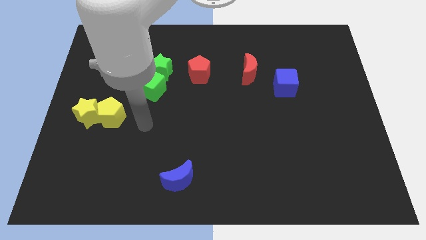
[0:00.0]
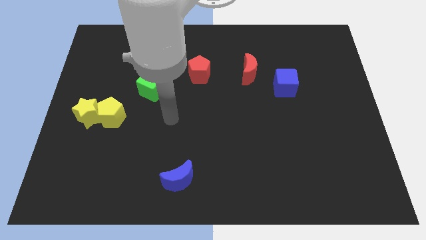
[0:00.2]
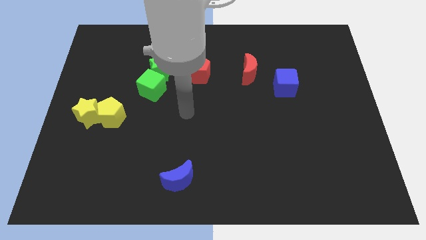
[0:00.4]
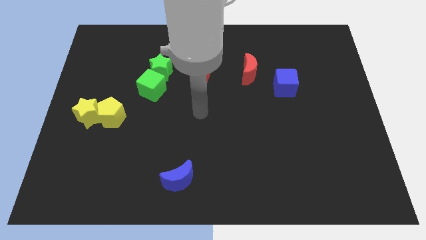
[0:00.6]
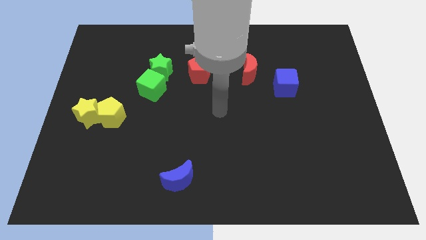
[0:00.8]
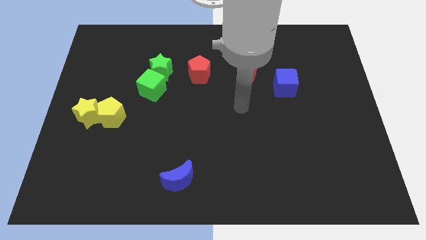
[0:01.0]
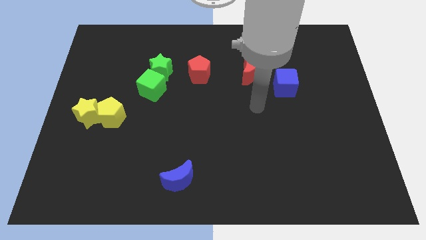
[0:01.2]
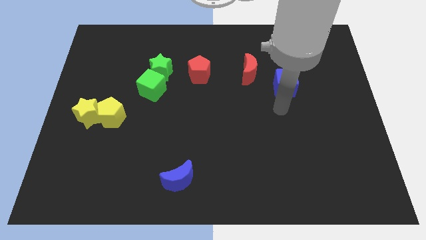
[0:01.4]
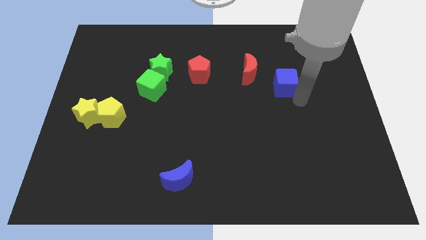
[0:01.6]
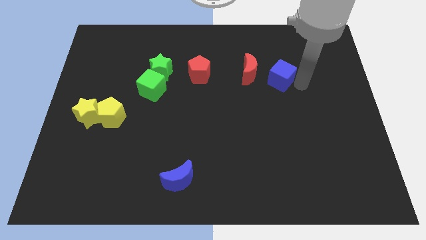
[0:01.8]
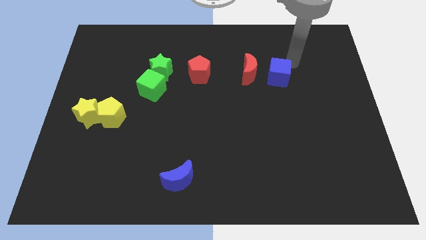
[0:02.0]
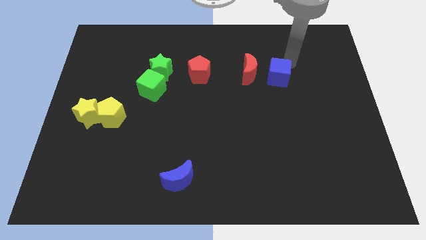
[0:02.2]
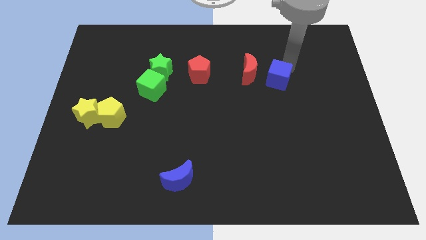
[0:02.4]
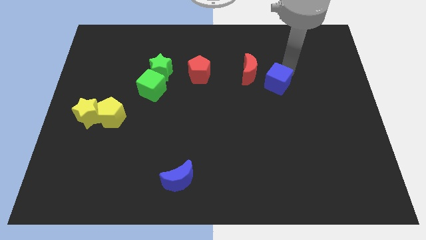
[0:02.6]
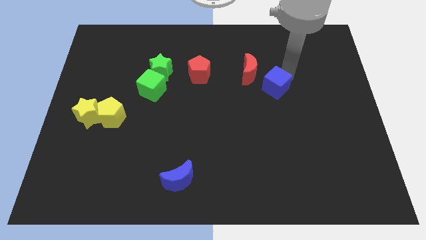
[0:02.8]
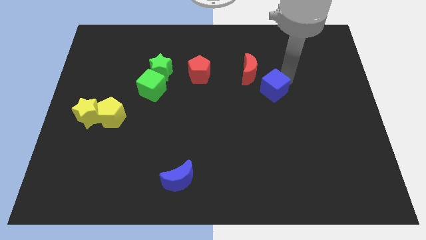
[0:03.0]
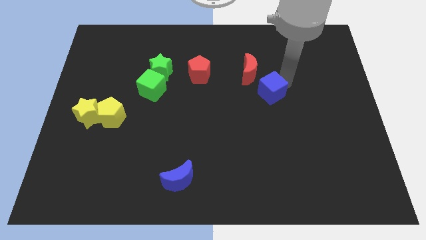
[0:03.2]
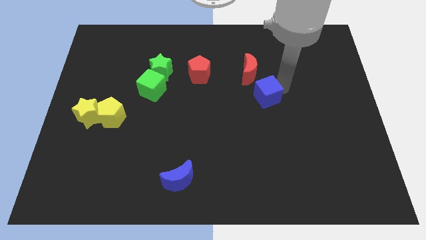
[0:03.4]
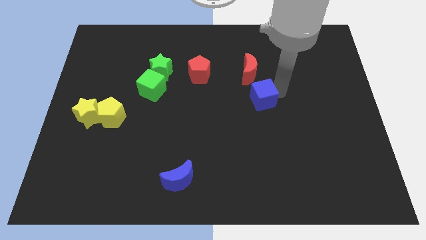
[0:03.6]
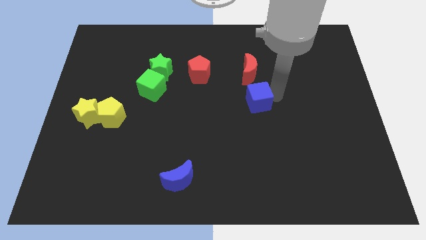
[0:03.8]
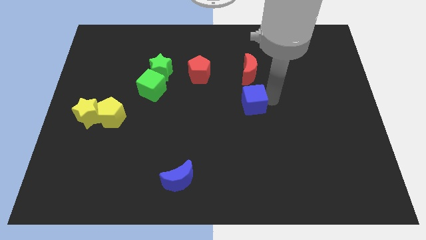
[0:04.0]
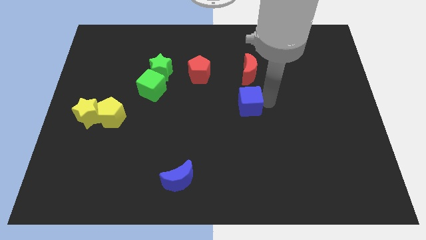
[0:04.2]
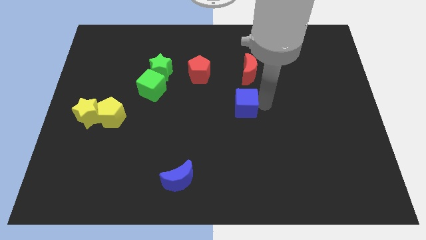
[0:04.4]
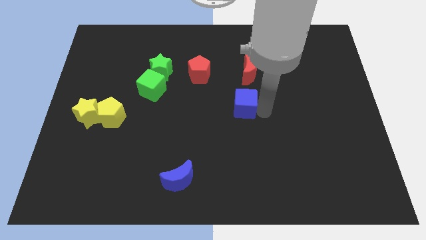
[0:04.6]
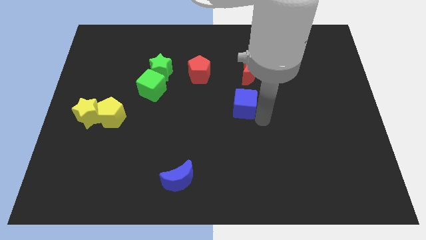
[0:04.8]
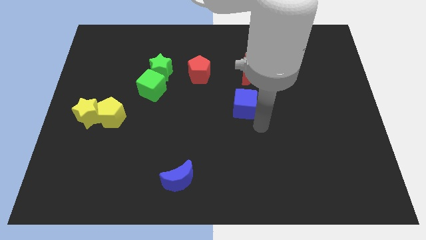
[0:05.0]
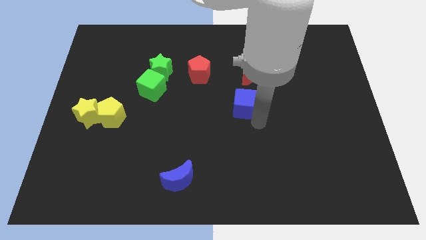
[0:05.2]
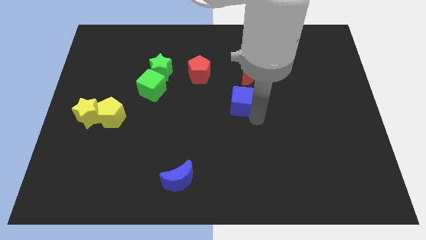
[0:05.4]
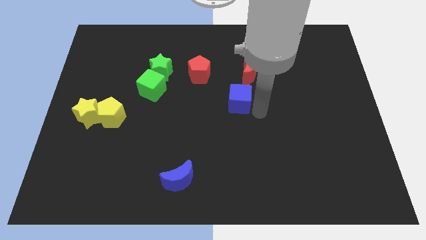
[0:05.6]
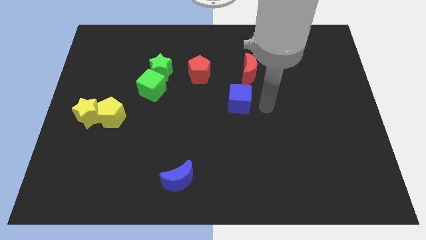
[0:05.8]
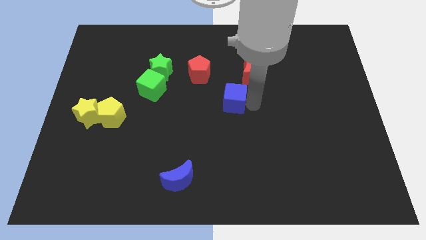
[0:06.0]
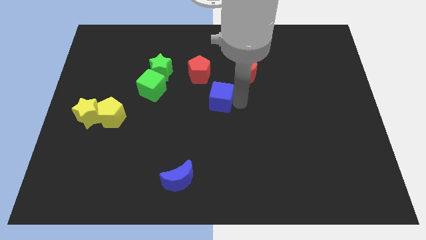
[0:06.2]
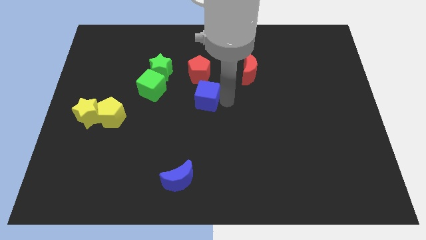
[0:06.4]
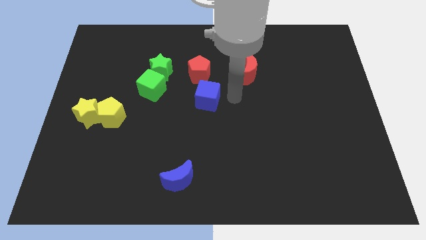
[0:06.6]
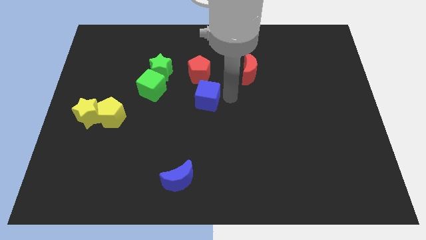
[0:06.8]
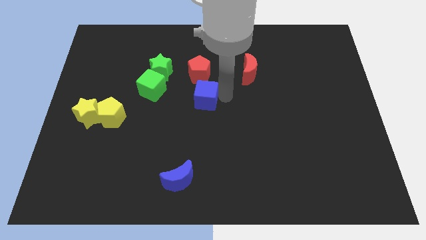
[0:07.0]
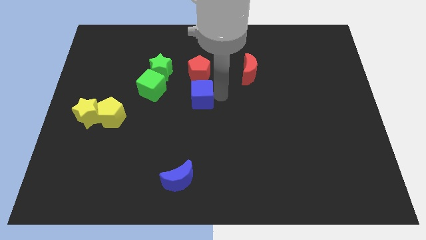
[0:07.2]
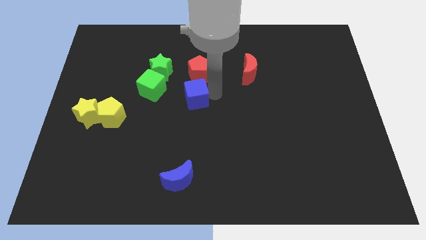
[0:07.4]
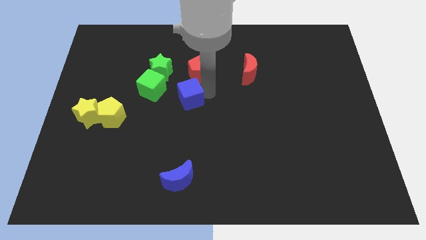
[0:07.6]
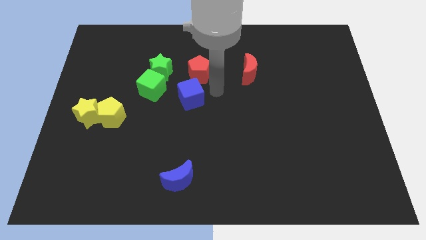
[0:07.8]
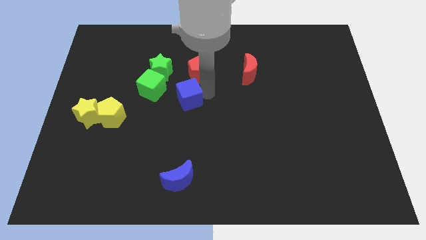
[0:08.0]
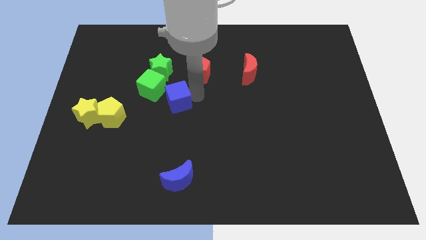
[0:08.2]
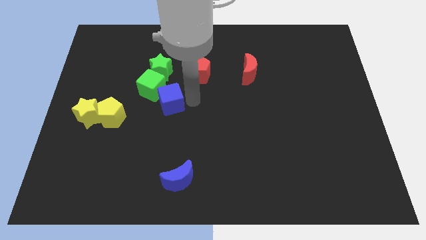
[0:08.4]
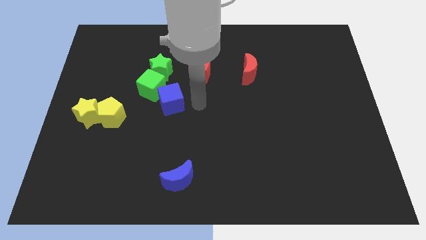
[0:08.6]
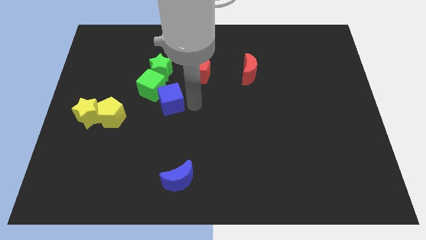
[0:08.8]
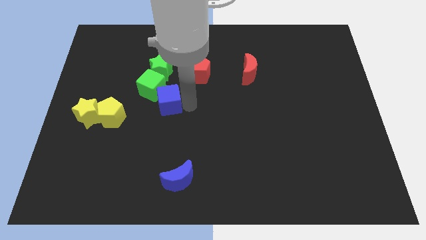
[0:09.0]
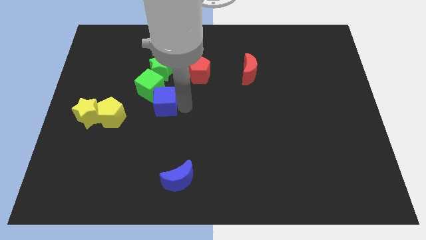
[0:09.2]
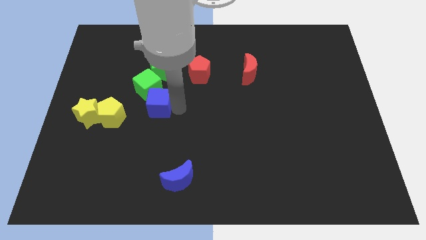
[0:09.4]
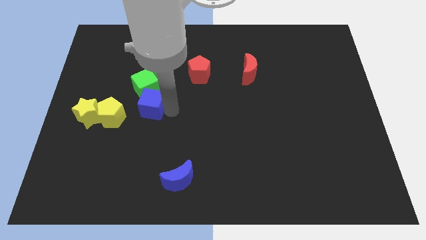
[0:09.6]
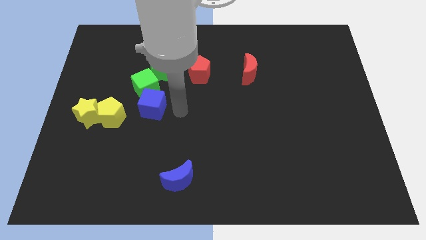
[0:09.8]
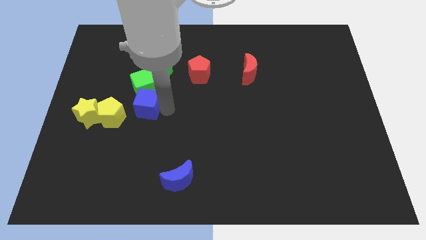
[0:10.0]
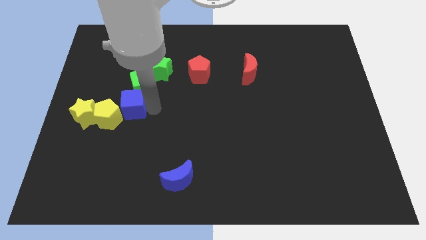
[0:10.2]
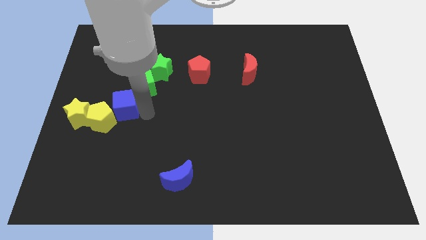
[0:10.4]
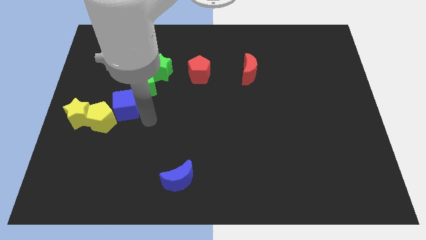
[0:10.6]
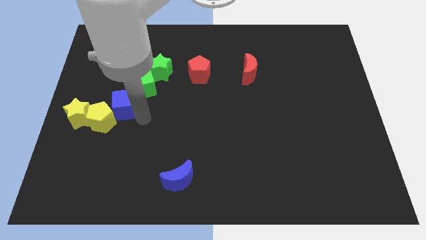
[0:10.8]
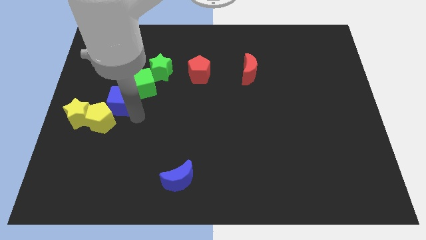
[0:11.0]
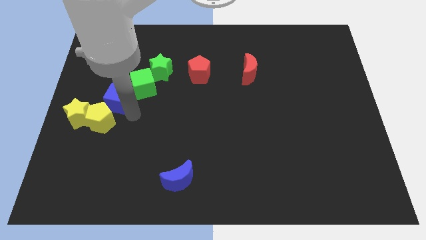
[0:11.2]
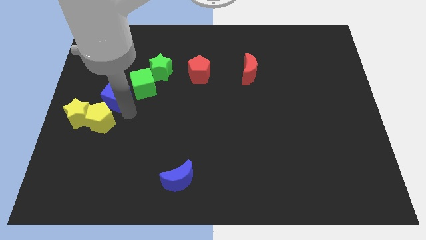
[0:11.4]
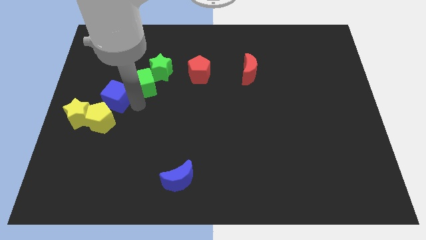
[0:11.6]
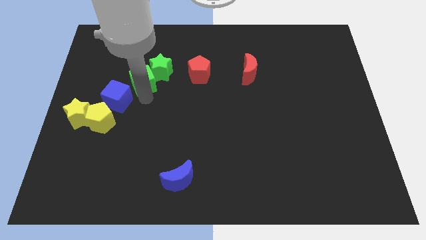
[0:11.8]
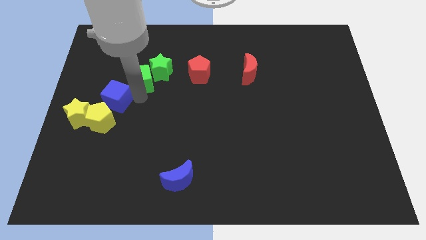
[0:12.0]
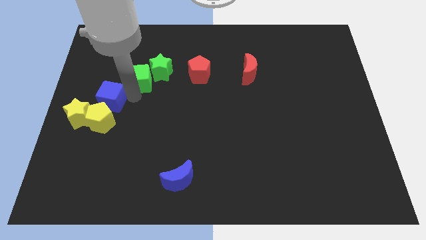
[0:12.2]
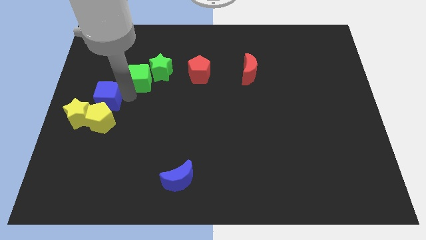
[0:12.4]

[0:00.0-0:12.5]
push the blue cube to the center left

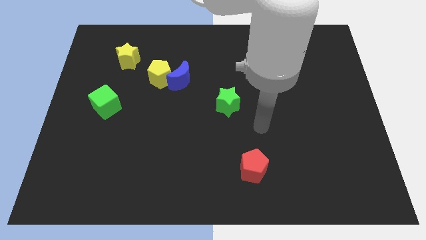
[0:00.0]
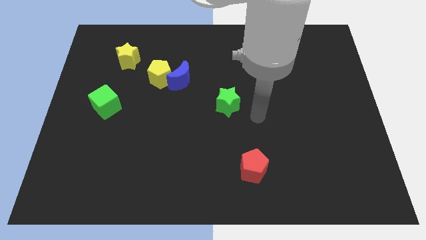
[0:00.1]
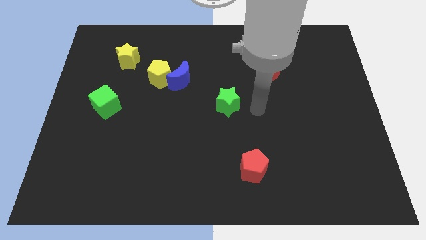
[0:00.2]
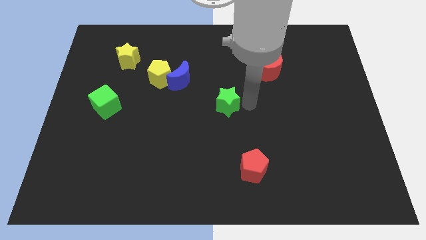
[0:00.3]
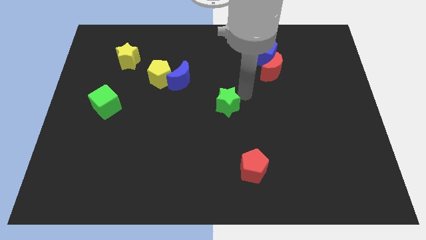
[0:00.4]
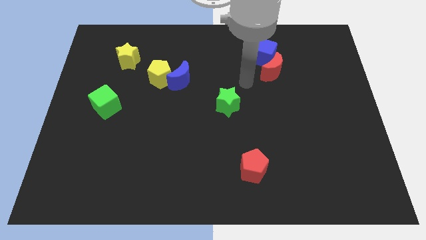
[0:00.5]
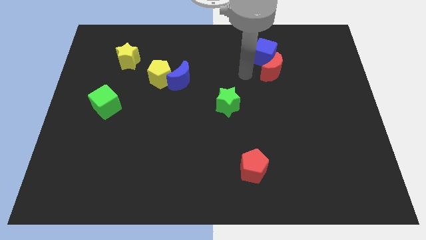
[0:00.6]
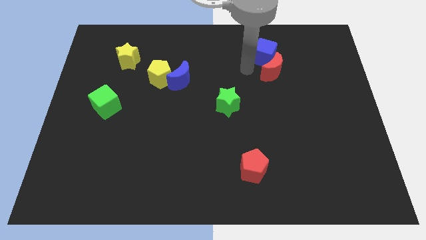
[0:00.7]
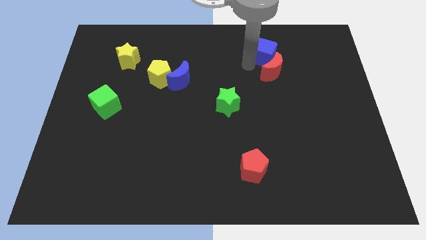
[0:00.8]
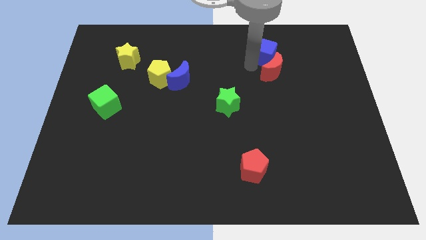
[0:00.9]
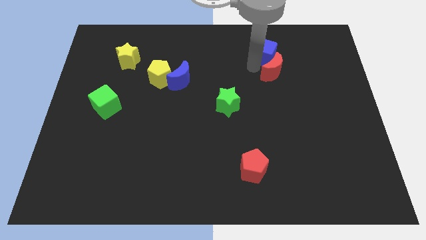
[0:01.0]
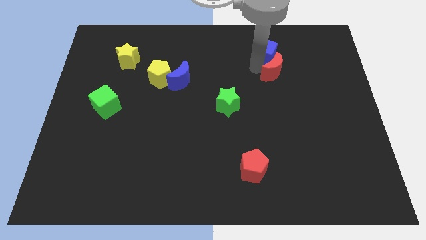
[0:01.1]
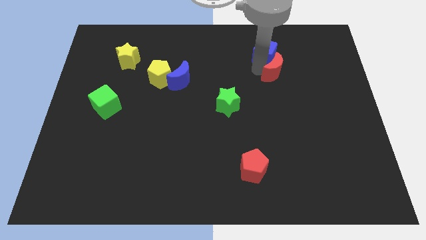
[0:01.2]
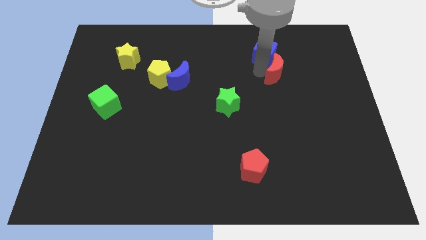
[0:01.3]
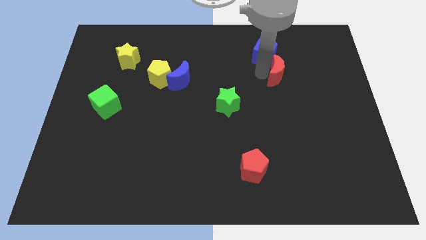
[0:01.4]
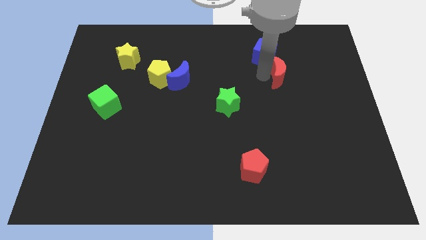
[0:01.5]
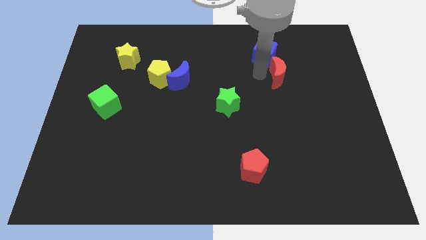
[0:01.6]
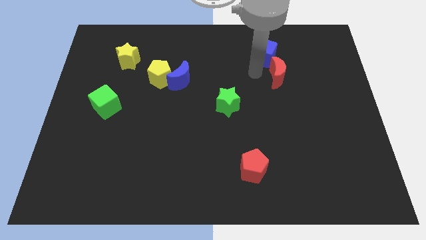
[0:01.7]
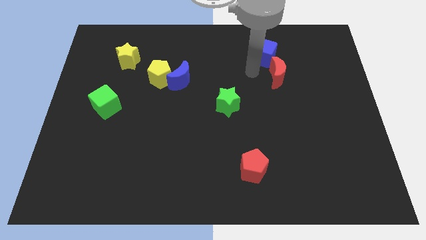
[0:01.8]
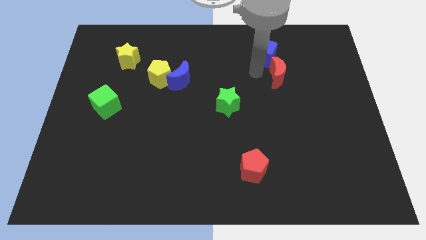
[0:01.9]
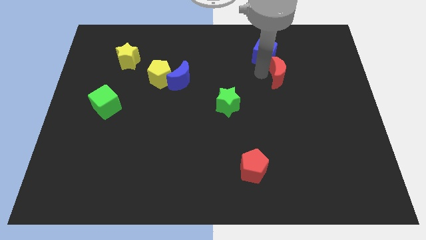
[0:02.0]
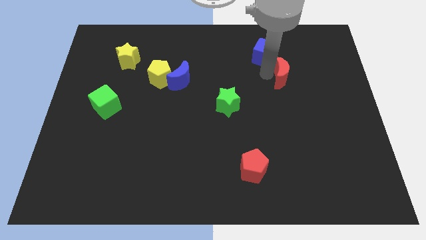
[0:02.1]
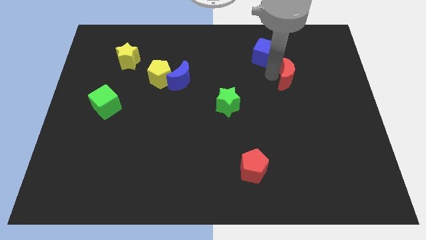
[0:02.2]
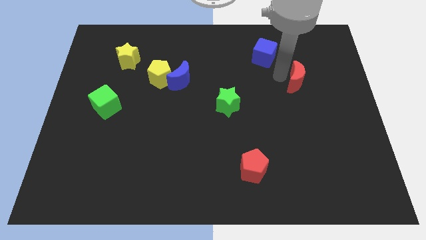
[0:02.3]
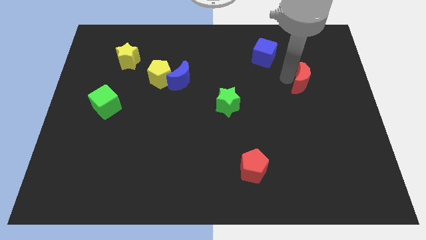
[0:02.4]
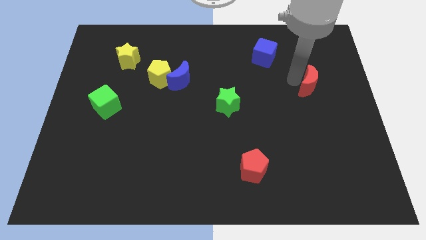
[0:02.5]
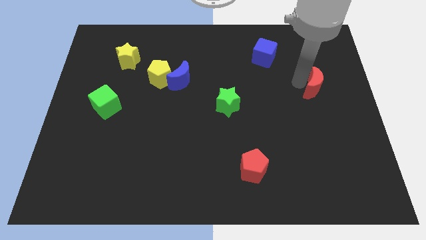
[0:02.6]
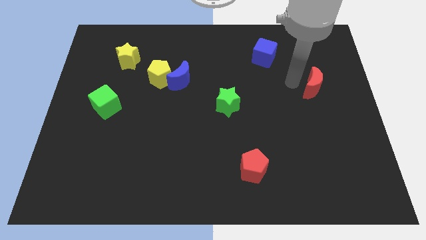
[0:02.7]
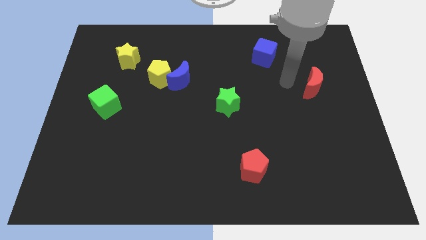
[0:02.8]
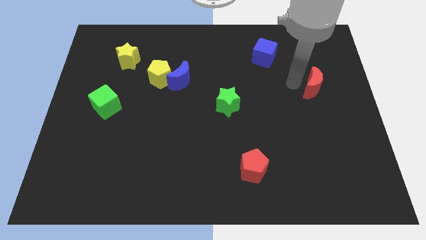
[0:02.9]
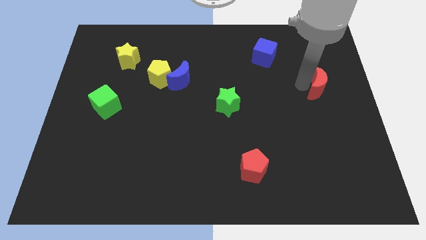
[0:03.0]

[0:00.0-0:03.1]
slide the red moon to the center right
